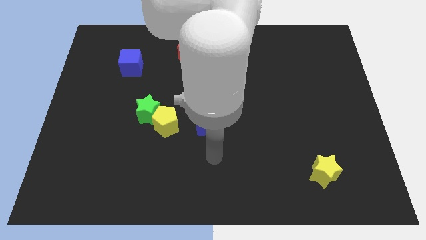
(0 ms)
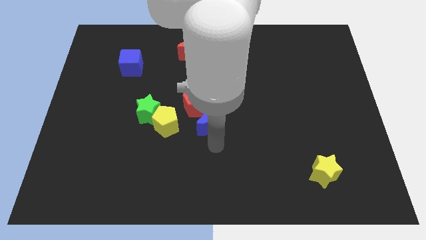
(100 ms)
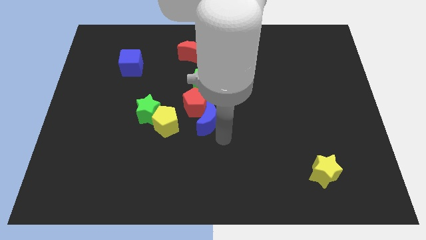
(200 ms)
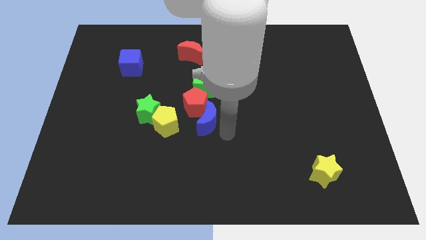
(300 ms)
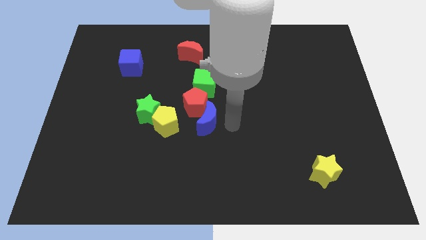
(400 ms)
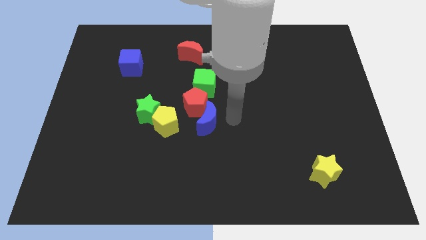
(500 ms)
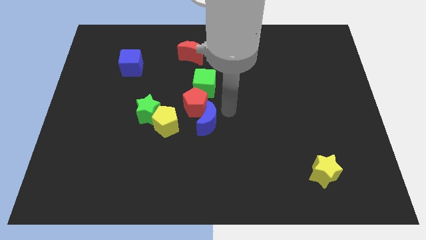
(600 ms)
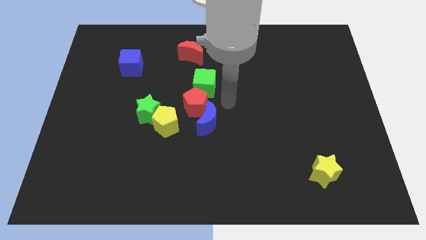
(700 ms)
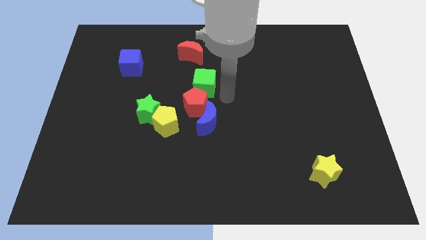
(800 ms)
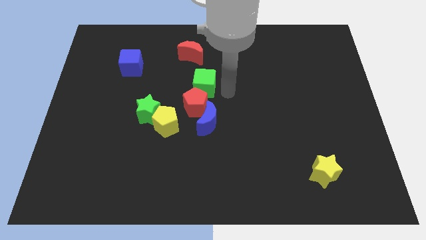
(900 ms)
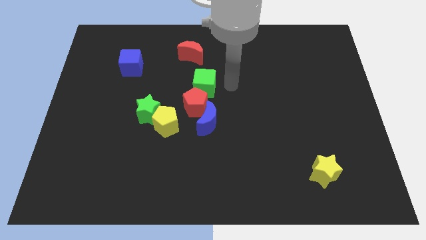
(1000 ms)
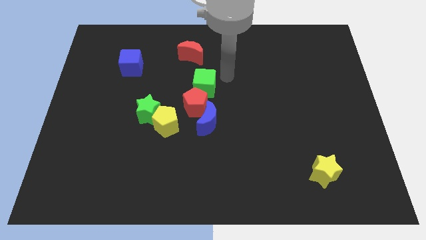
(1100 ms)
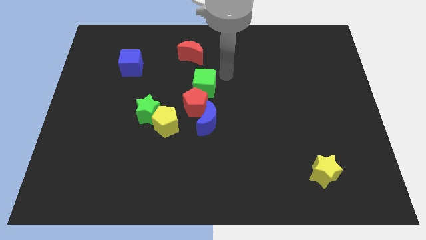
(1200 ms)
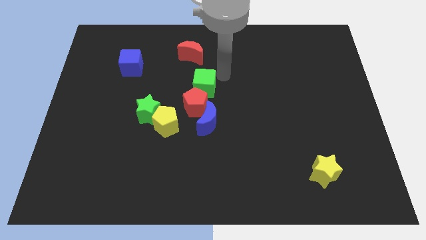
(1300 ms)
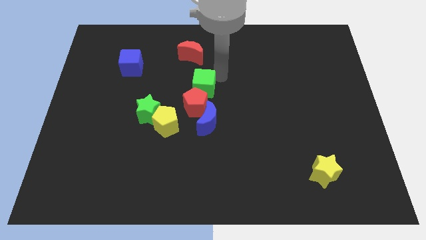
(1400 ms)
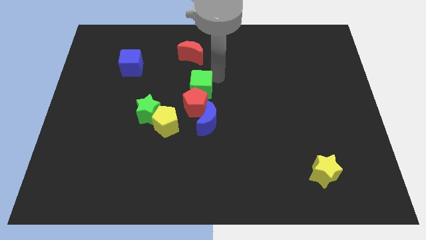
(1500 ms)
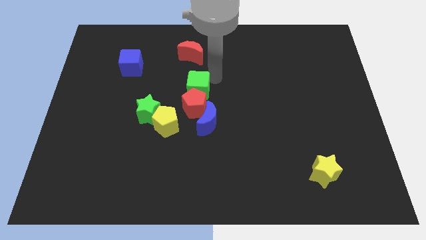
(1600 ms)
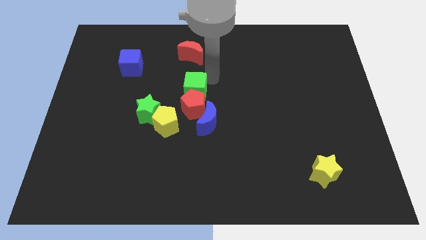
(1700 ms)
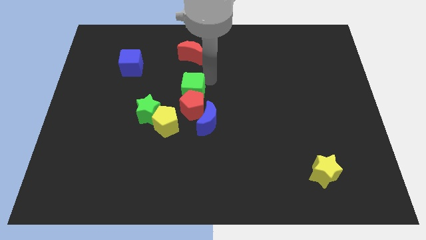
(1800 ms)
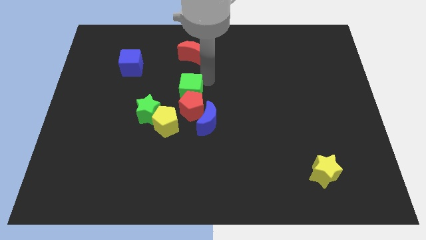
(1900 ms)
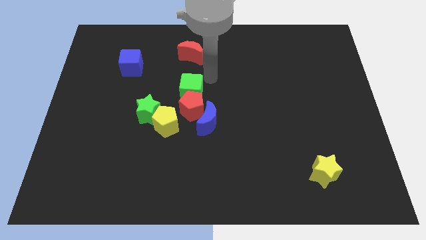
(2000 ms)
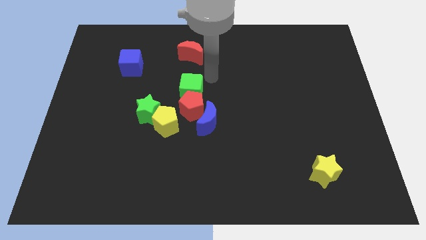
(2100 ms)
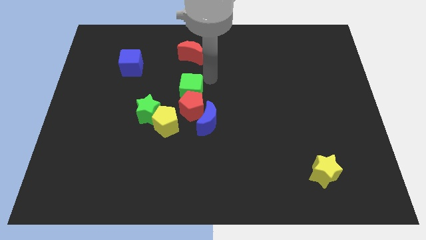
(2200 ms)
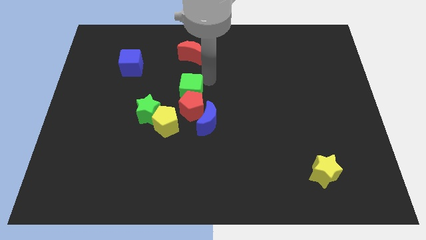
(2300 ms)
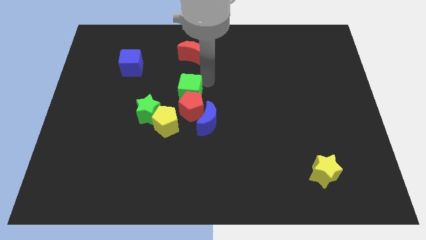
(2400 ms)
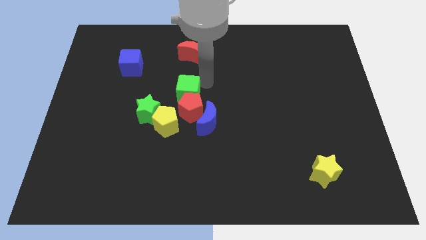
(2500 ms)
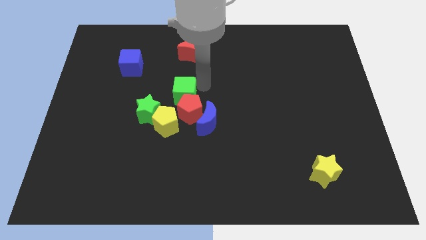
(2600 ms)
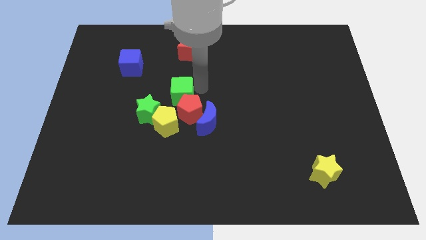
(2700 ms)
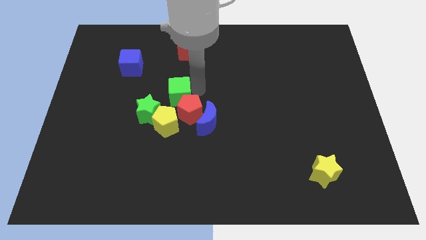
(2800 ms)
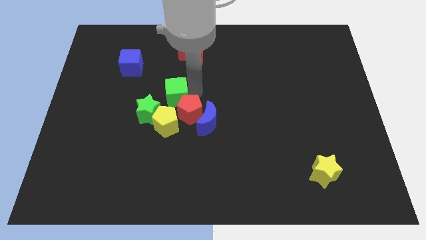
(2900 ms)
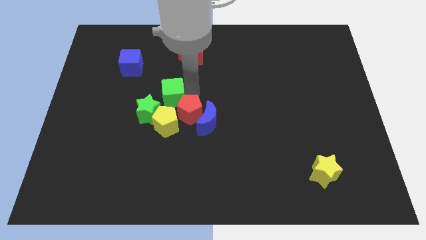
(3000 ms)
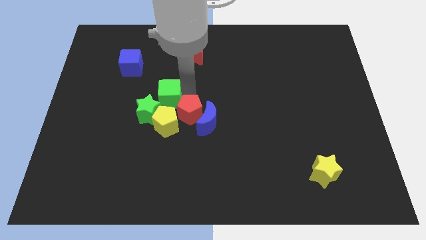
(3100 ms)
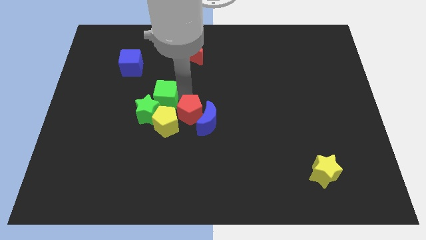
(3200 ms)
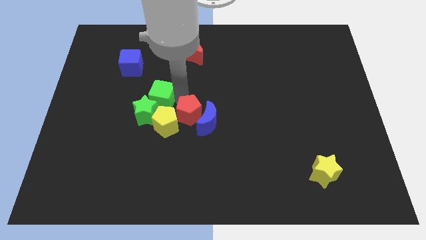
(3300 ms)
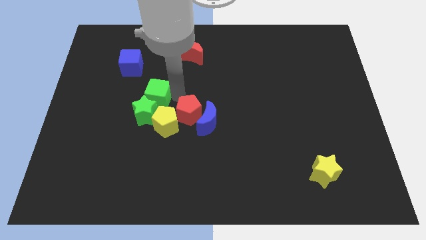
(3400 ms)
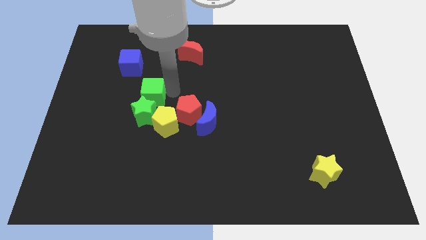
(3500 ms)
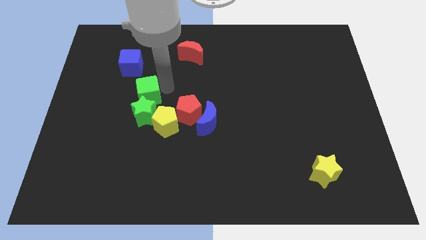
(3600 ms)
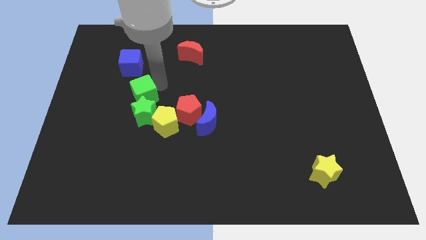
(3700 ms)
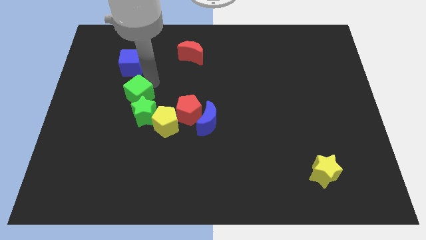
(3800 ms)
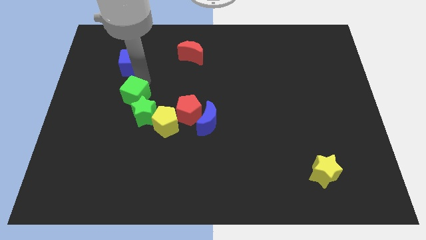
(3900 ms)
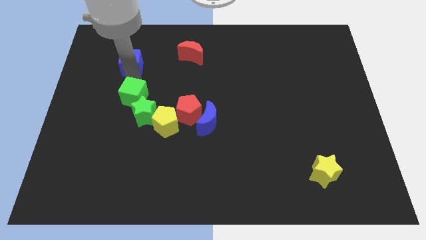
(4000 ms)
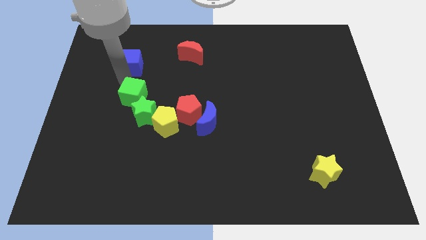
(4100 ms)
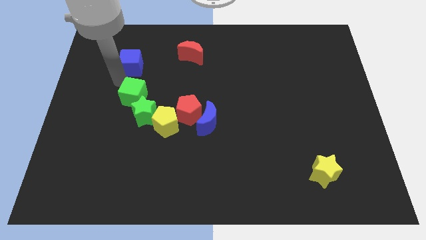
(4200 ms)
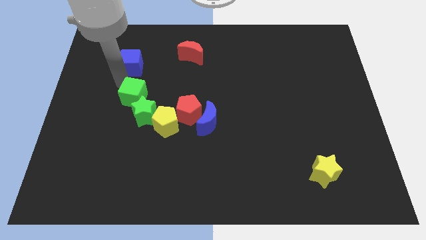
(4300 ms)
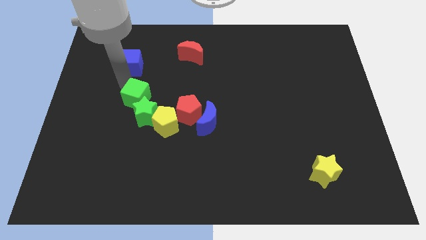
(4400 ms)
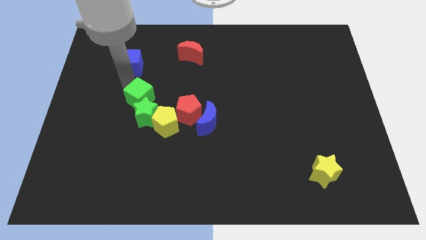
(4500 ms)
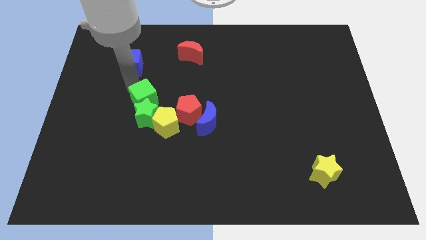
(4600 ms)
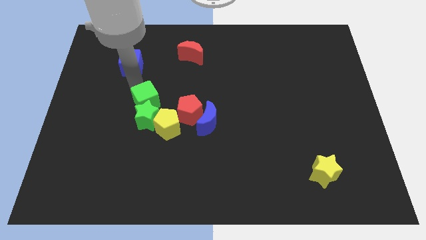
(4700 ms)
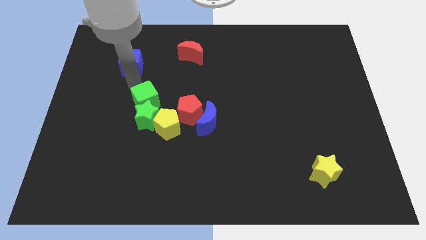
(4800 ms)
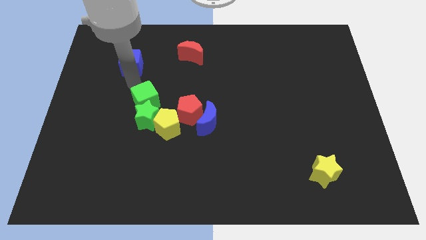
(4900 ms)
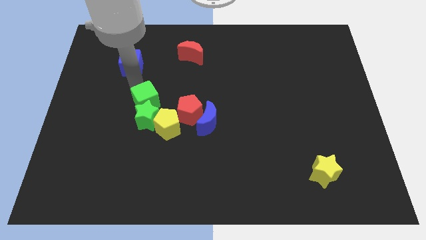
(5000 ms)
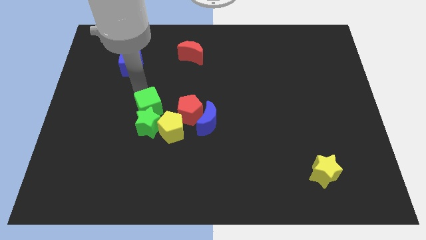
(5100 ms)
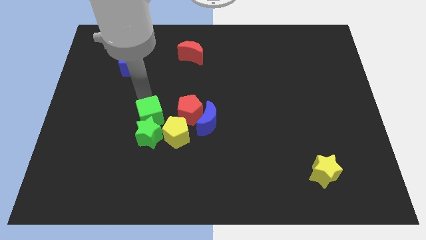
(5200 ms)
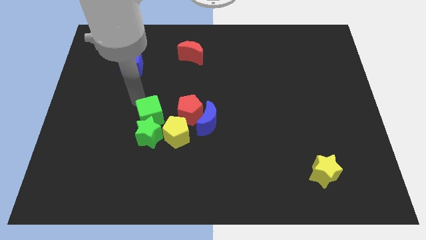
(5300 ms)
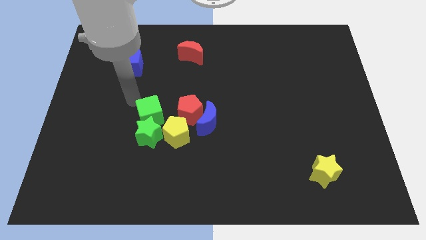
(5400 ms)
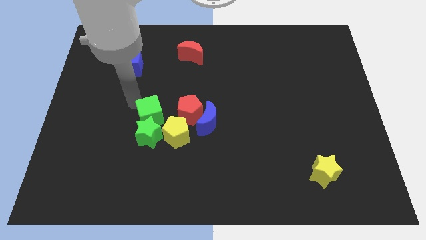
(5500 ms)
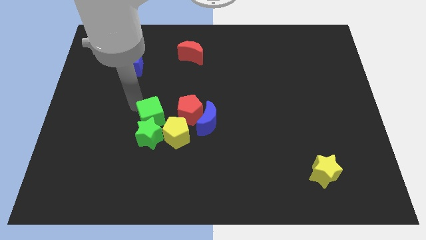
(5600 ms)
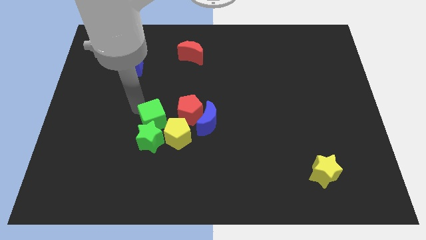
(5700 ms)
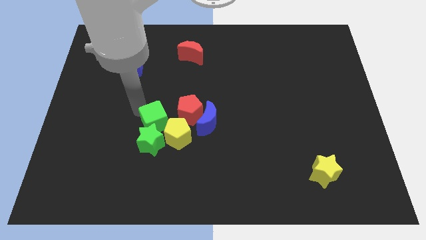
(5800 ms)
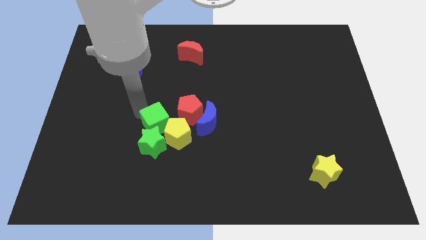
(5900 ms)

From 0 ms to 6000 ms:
move the green cube next to the yellow pentagon

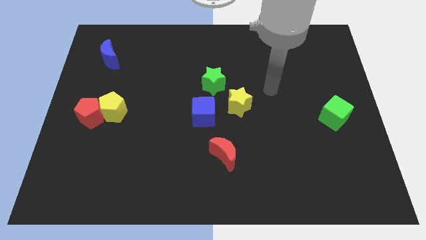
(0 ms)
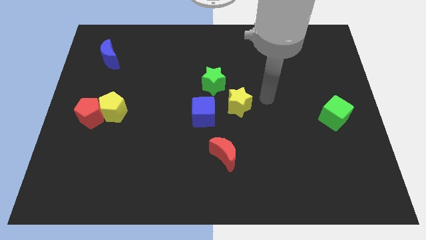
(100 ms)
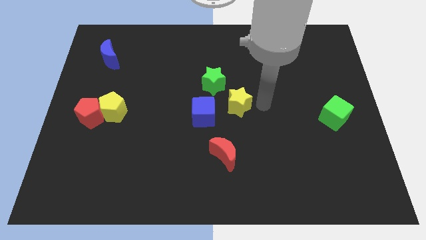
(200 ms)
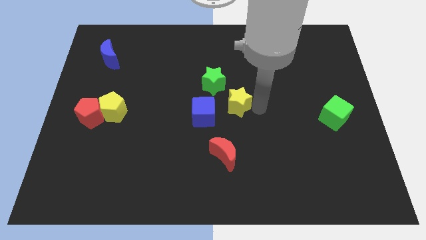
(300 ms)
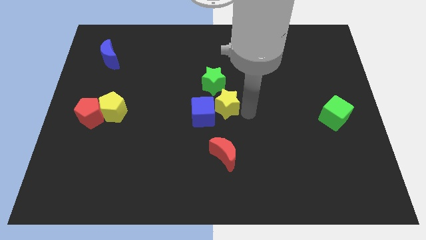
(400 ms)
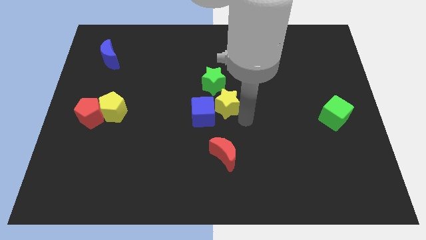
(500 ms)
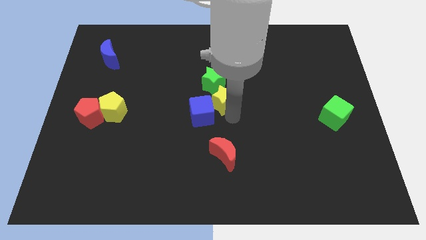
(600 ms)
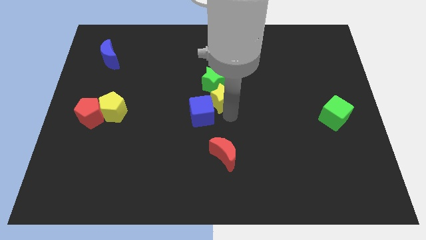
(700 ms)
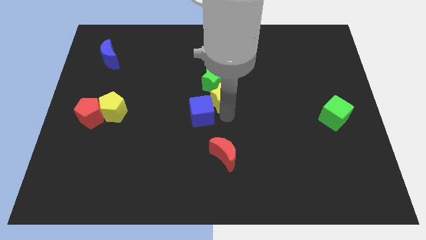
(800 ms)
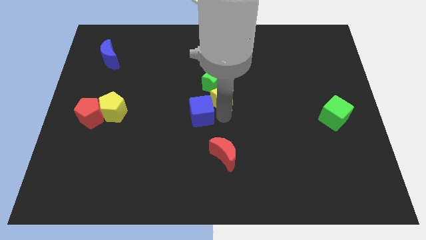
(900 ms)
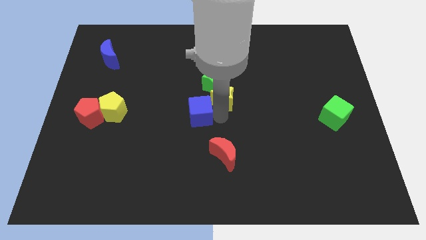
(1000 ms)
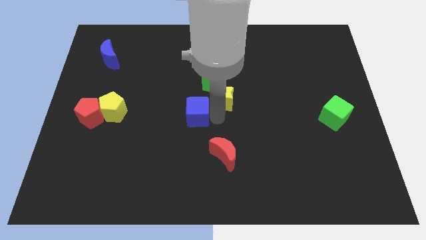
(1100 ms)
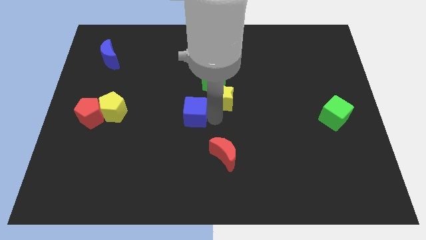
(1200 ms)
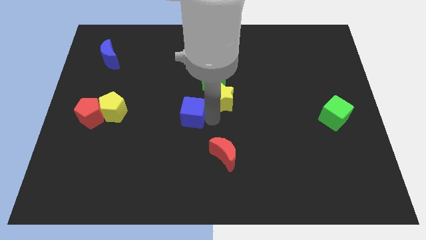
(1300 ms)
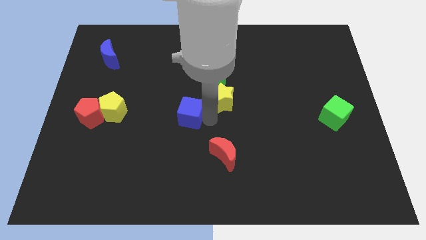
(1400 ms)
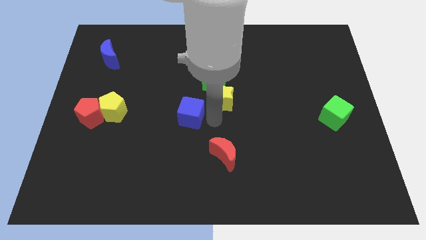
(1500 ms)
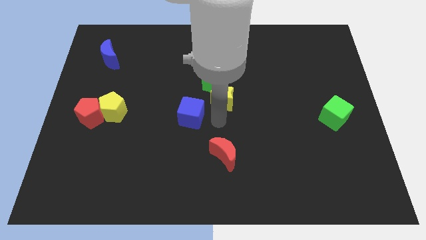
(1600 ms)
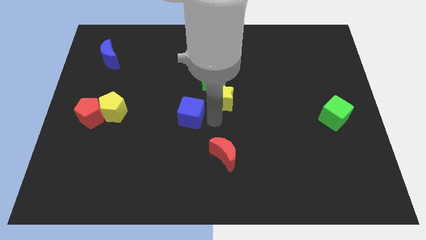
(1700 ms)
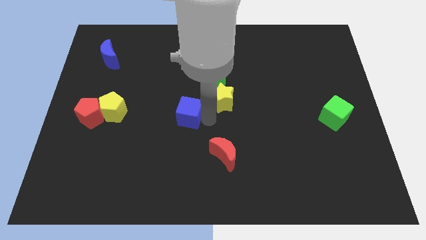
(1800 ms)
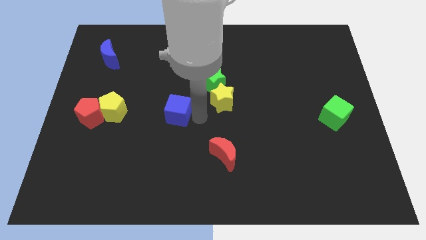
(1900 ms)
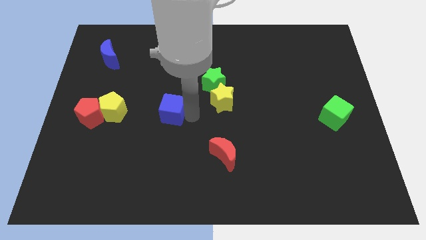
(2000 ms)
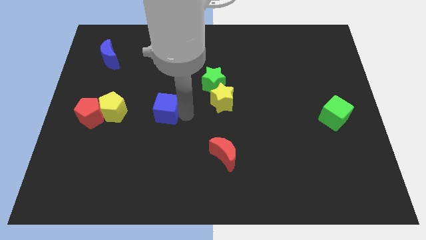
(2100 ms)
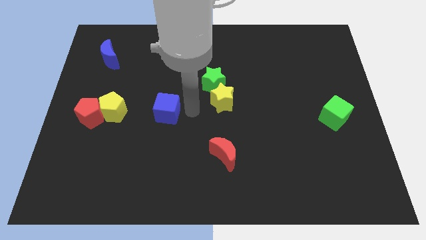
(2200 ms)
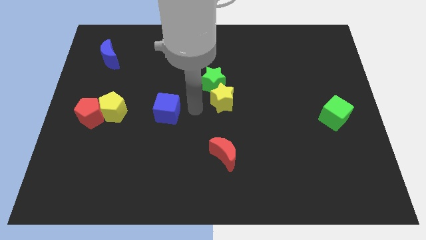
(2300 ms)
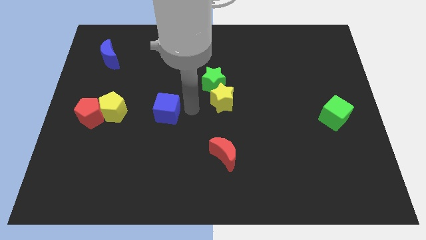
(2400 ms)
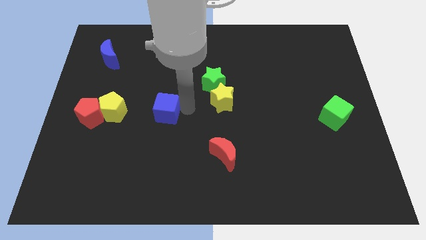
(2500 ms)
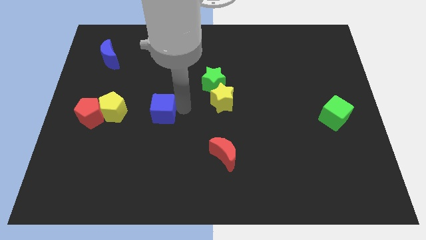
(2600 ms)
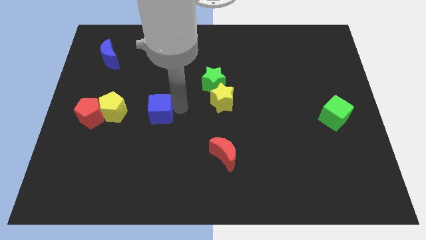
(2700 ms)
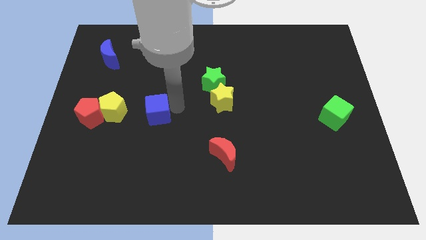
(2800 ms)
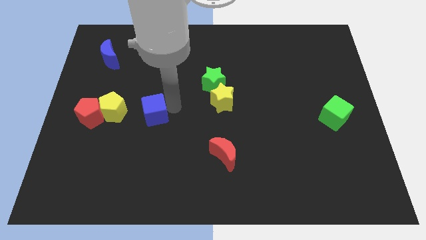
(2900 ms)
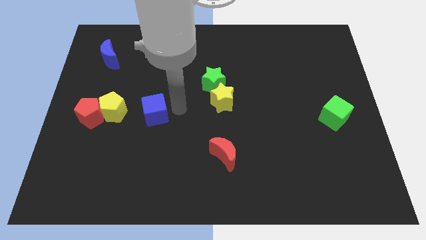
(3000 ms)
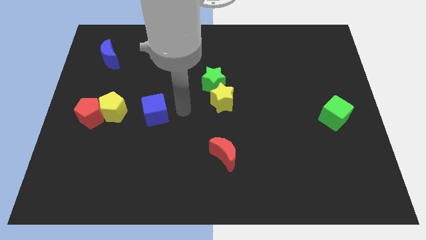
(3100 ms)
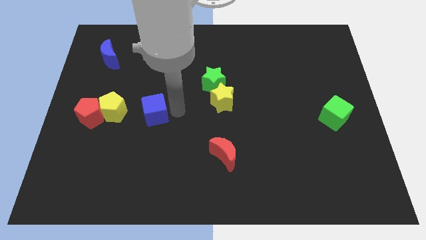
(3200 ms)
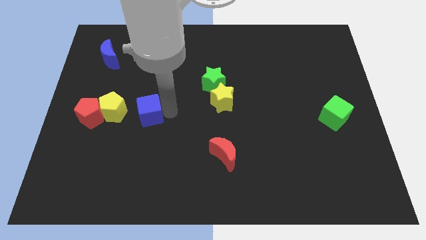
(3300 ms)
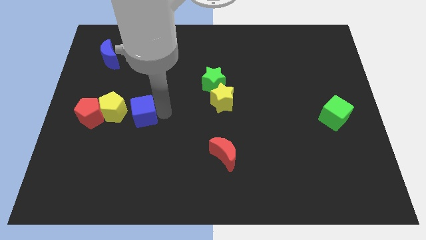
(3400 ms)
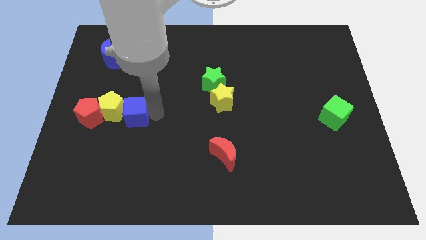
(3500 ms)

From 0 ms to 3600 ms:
put the blue cube close to the yellow pentagon
